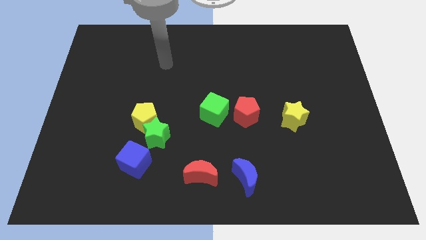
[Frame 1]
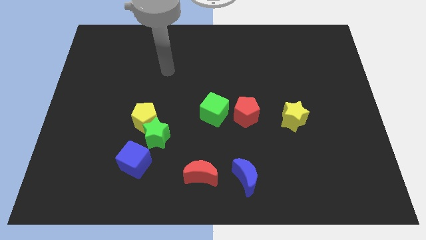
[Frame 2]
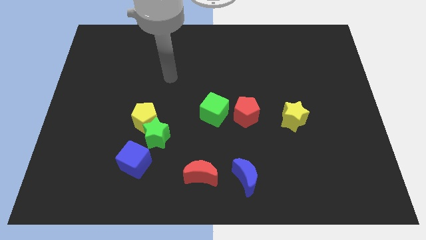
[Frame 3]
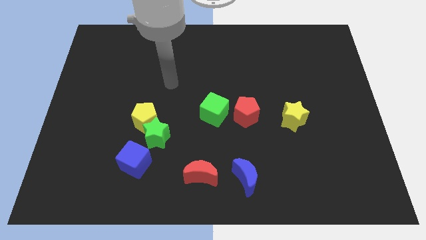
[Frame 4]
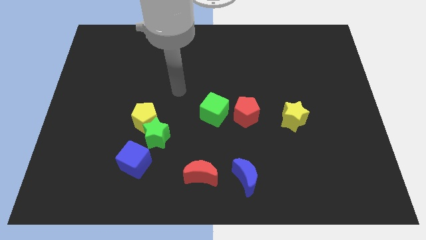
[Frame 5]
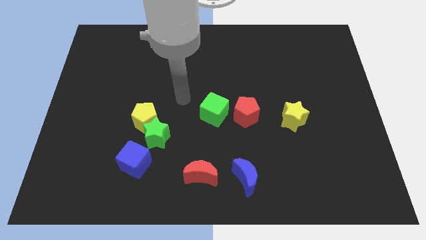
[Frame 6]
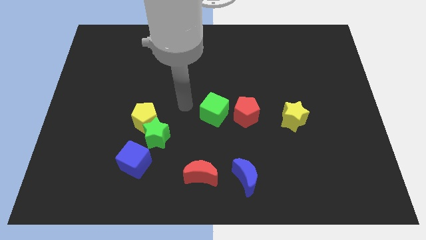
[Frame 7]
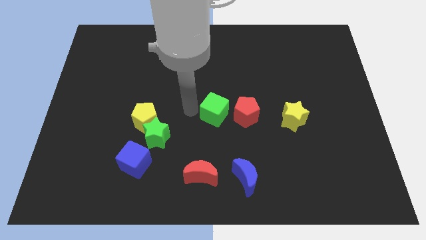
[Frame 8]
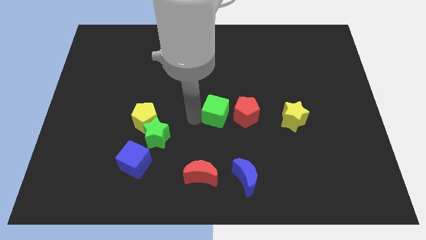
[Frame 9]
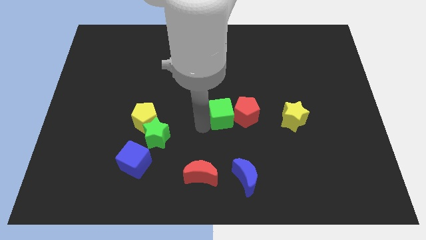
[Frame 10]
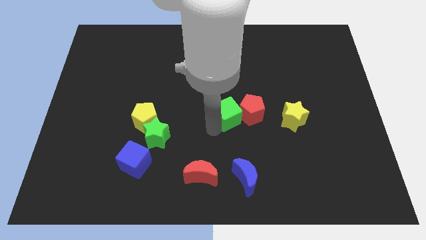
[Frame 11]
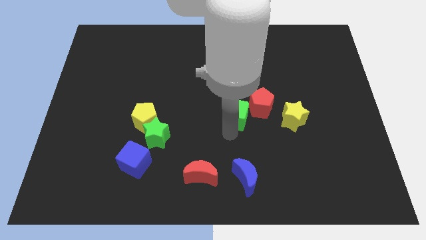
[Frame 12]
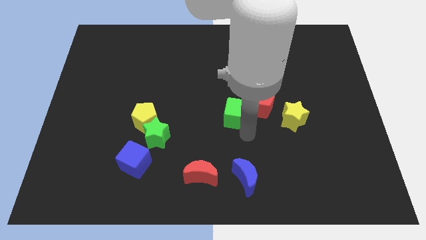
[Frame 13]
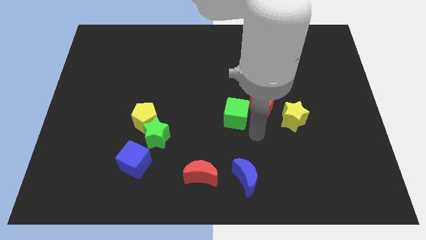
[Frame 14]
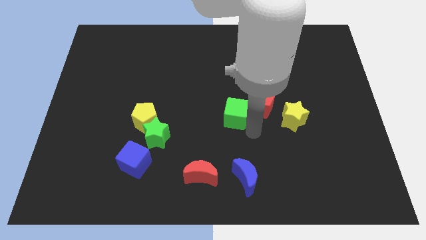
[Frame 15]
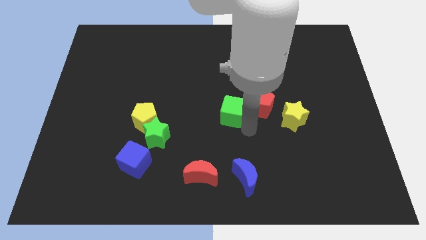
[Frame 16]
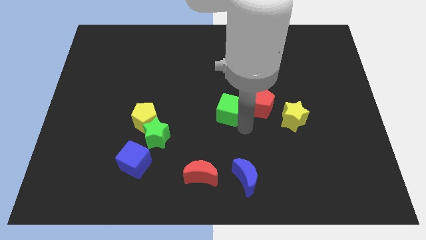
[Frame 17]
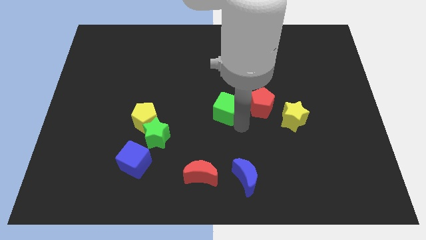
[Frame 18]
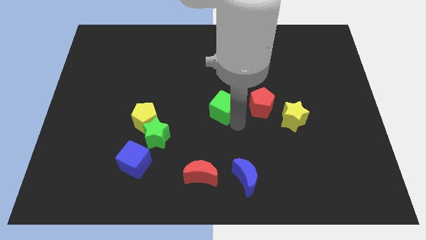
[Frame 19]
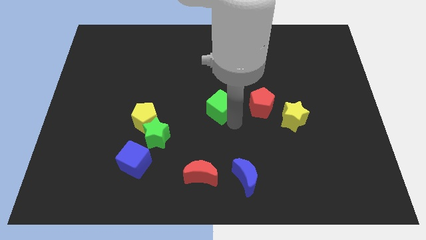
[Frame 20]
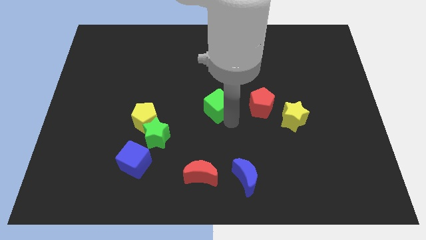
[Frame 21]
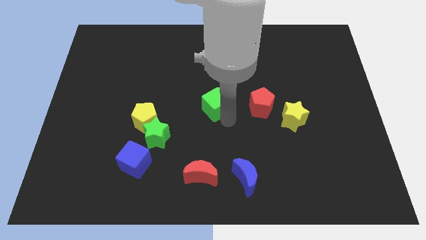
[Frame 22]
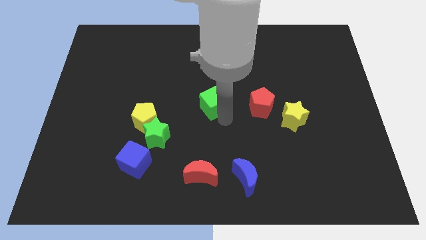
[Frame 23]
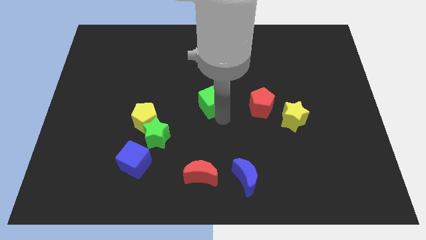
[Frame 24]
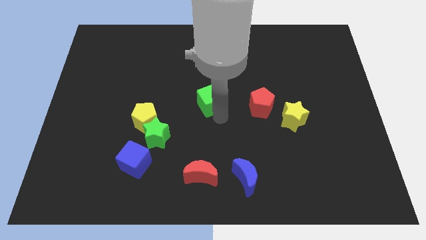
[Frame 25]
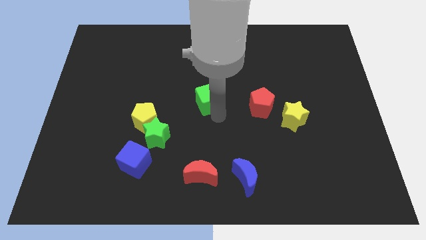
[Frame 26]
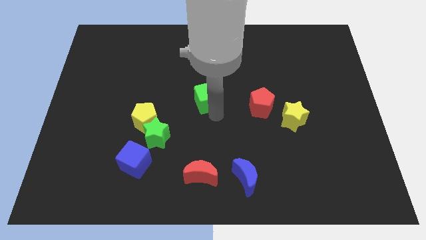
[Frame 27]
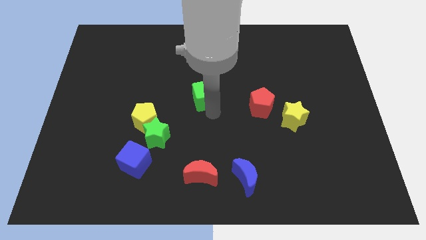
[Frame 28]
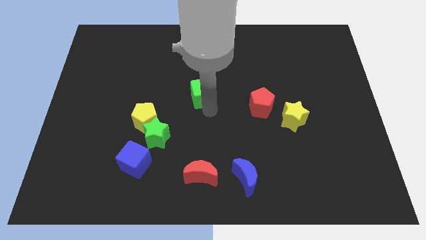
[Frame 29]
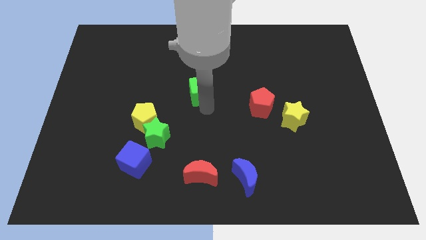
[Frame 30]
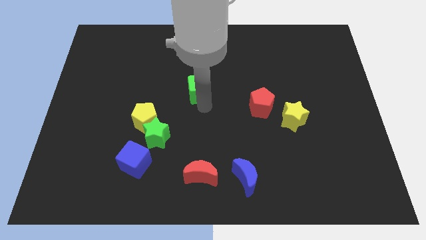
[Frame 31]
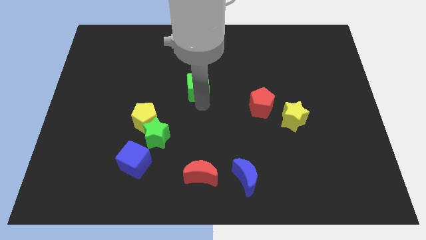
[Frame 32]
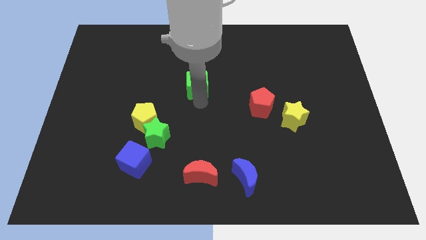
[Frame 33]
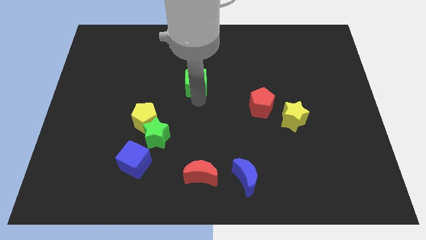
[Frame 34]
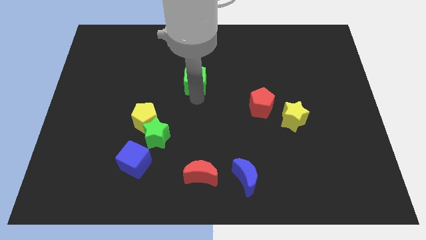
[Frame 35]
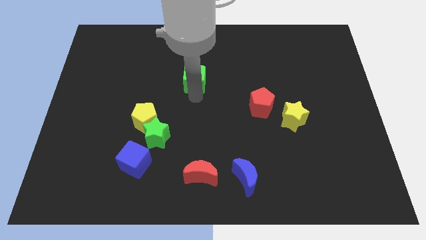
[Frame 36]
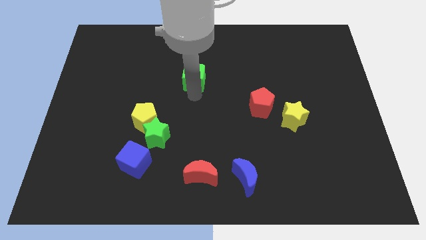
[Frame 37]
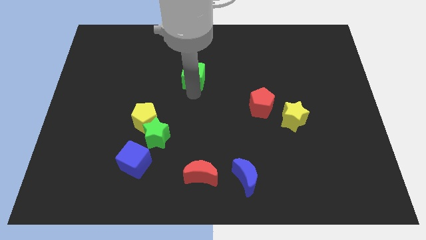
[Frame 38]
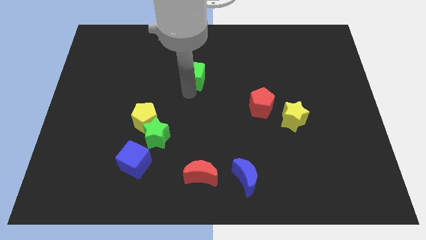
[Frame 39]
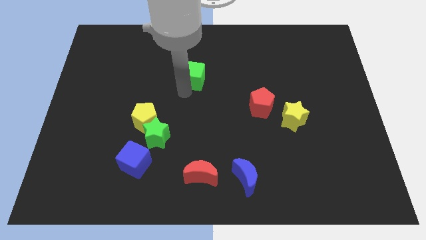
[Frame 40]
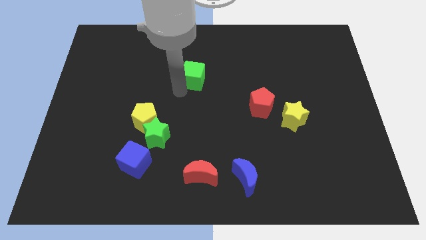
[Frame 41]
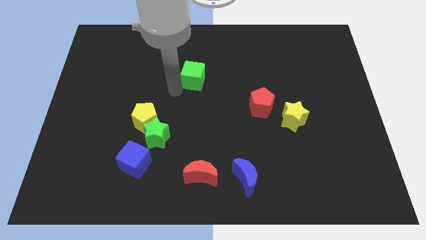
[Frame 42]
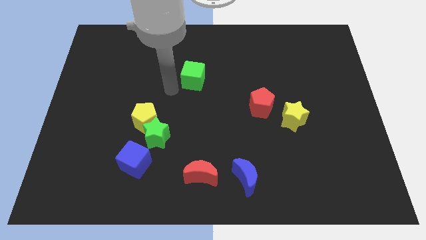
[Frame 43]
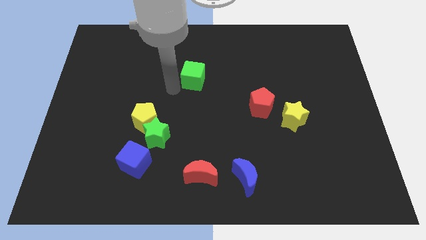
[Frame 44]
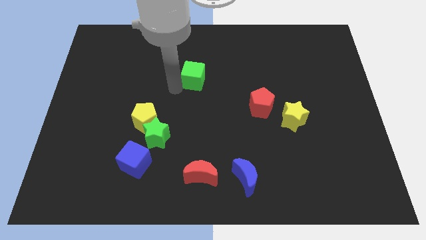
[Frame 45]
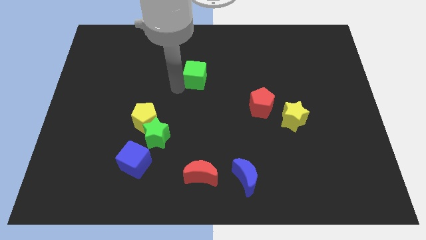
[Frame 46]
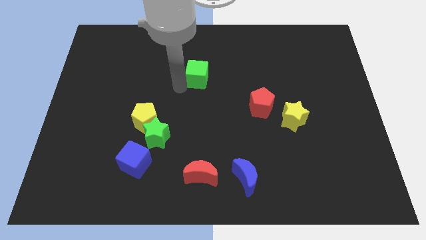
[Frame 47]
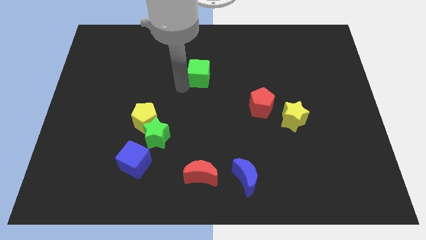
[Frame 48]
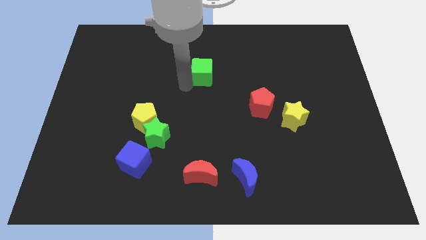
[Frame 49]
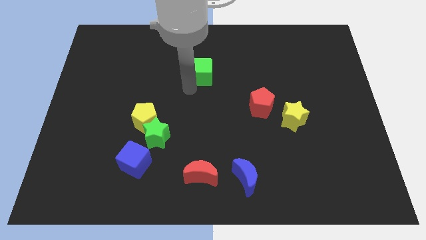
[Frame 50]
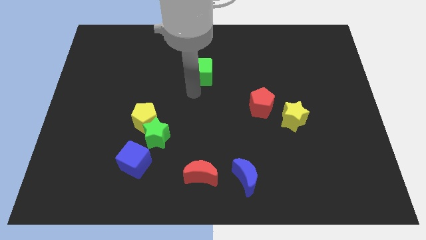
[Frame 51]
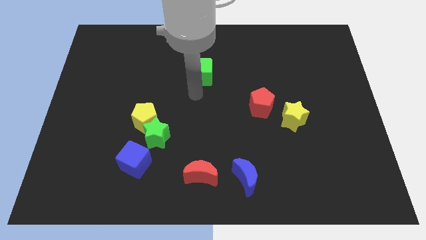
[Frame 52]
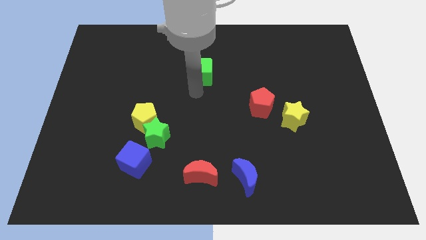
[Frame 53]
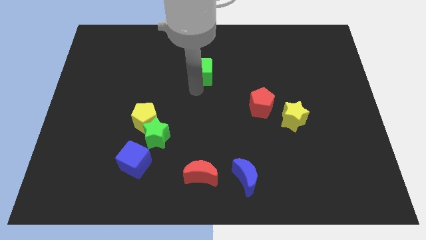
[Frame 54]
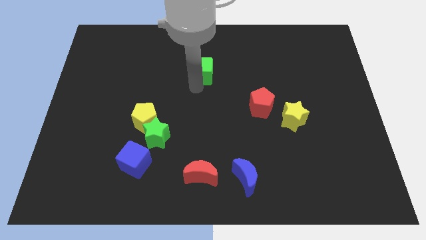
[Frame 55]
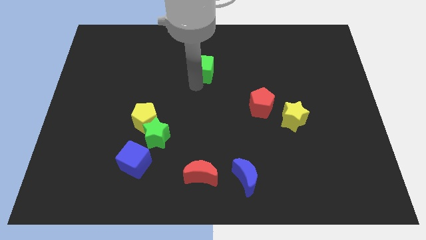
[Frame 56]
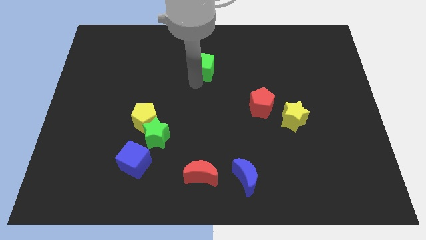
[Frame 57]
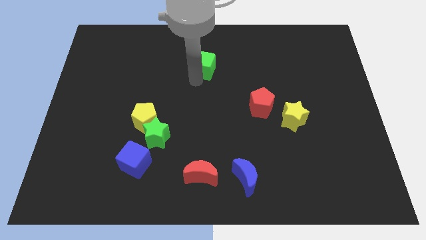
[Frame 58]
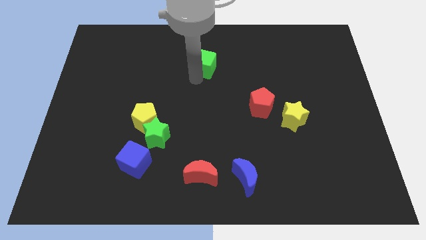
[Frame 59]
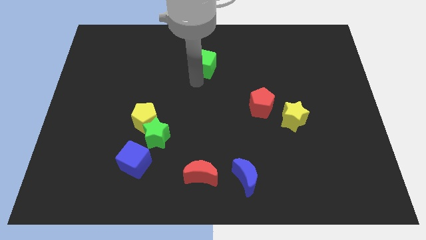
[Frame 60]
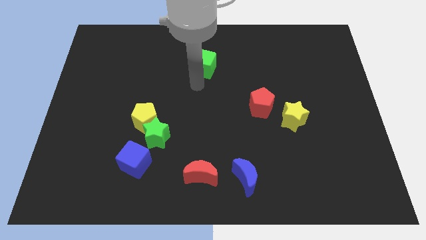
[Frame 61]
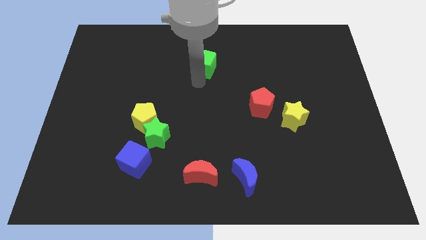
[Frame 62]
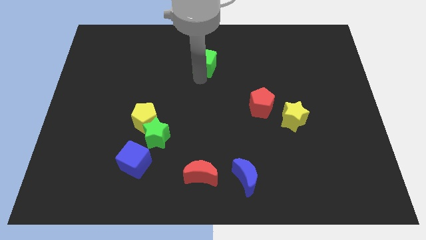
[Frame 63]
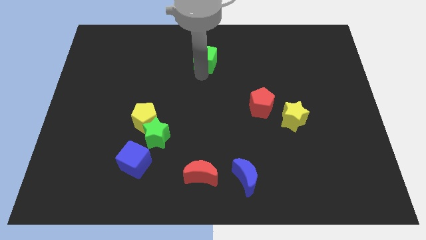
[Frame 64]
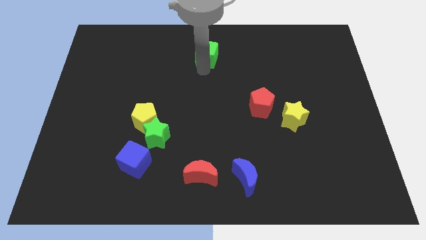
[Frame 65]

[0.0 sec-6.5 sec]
push the green cube to the towards your base
